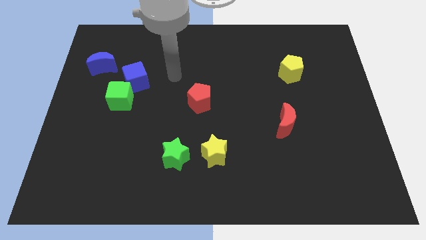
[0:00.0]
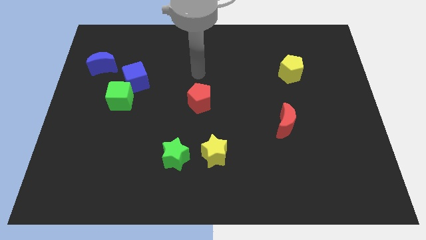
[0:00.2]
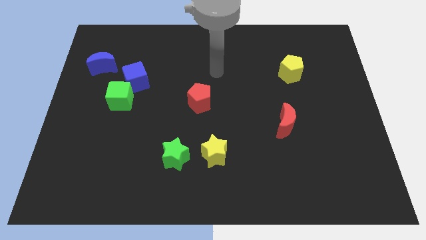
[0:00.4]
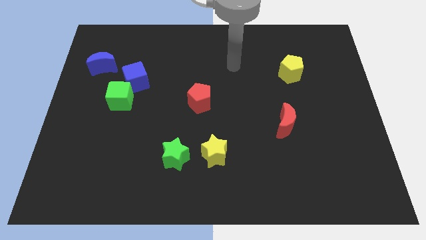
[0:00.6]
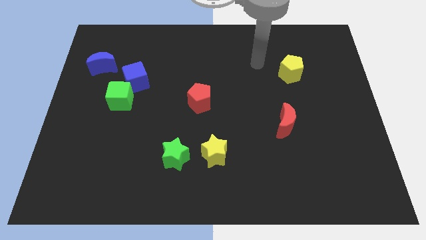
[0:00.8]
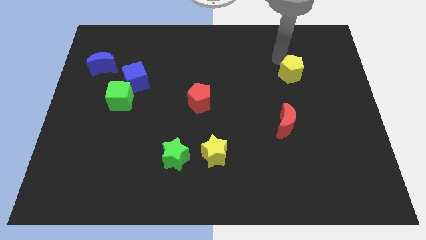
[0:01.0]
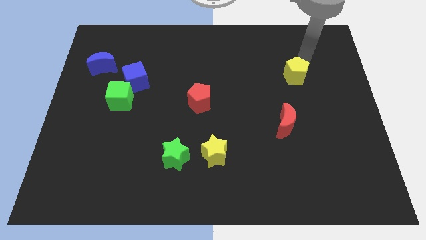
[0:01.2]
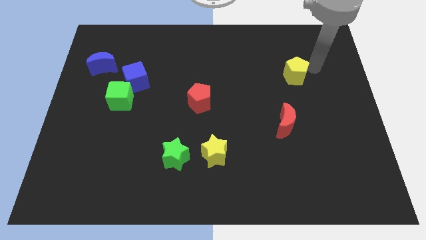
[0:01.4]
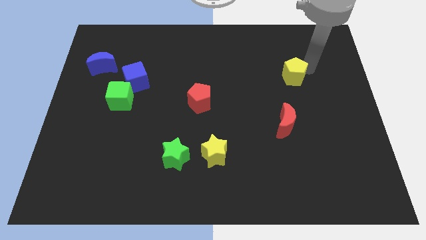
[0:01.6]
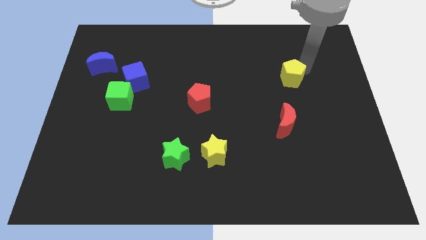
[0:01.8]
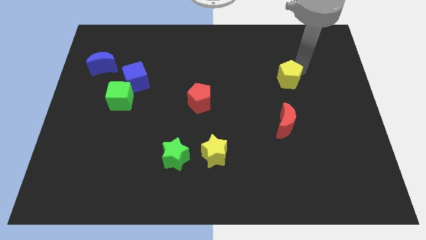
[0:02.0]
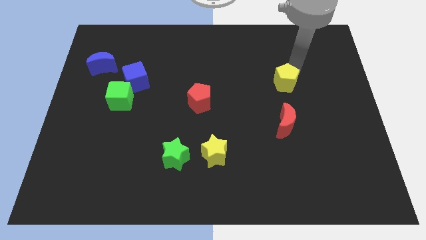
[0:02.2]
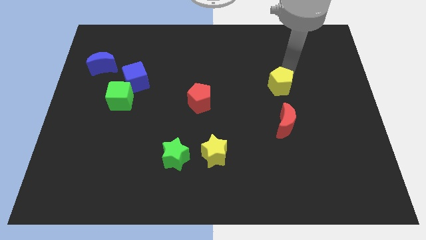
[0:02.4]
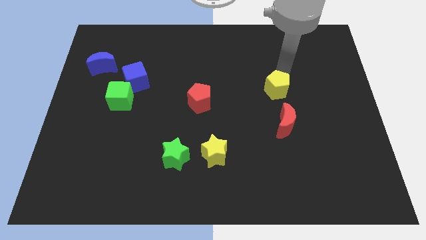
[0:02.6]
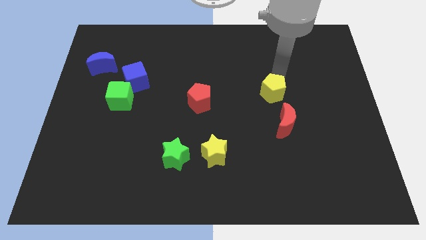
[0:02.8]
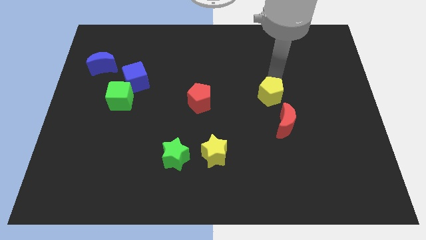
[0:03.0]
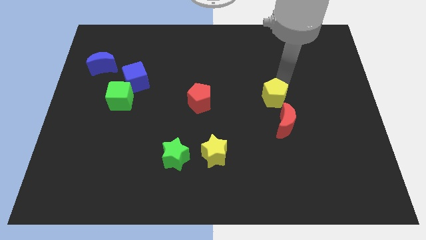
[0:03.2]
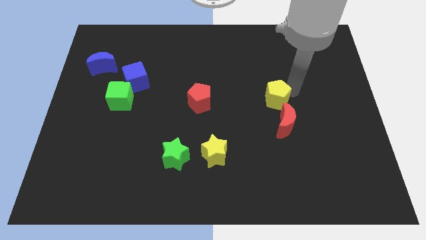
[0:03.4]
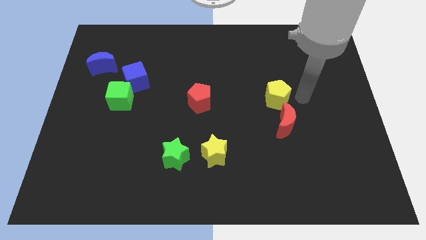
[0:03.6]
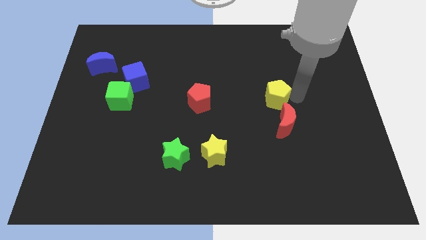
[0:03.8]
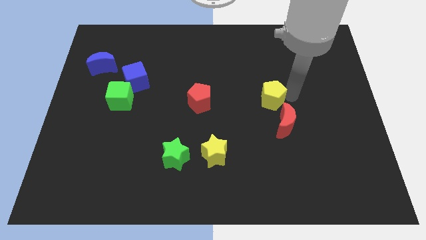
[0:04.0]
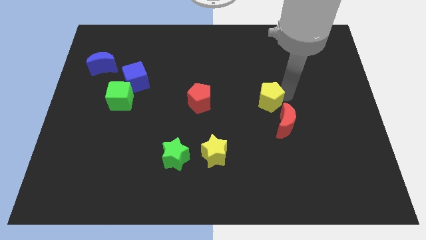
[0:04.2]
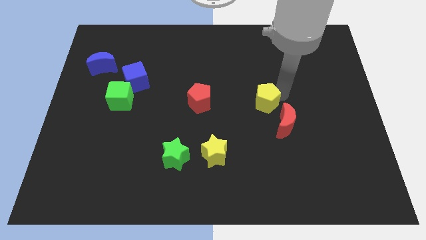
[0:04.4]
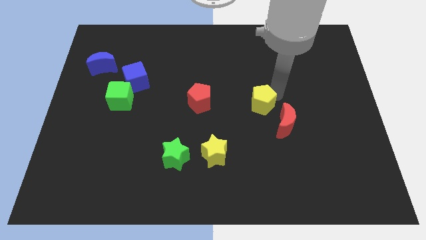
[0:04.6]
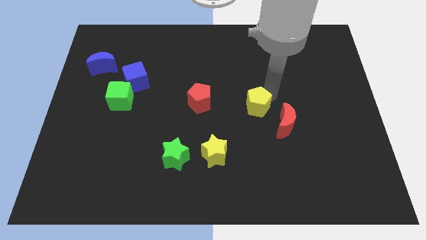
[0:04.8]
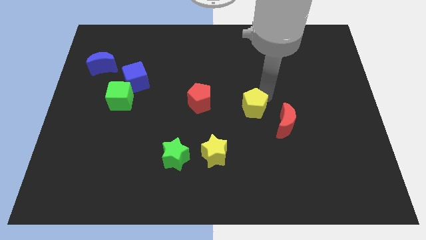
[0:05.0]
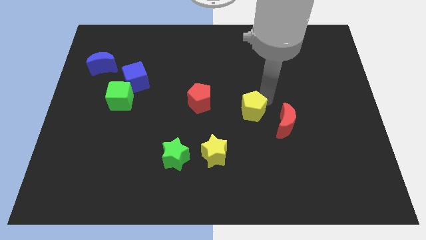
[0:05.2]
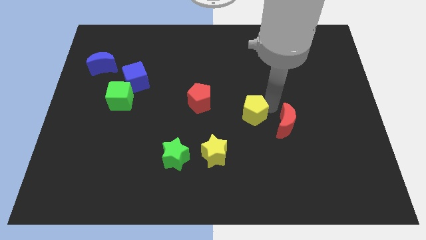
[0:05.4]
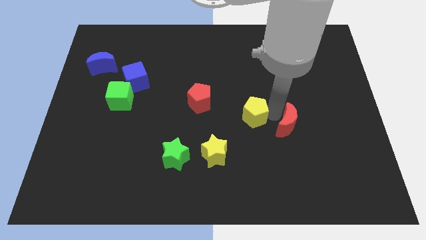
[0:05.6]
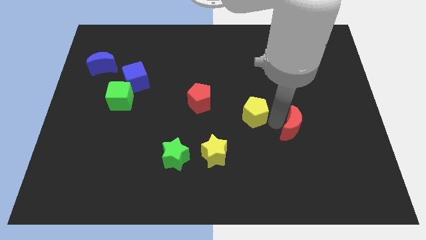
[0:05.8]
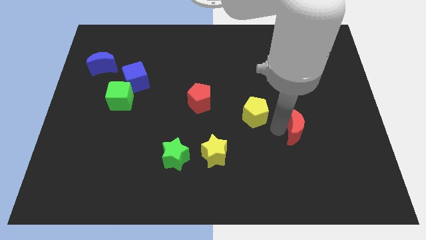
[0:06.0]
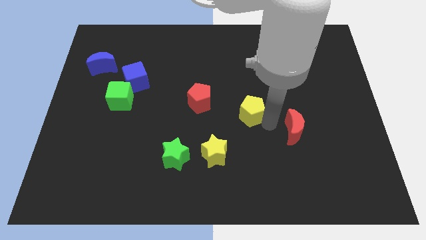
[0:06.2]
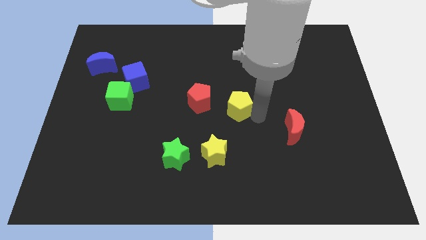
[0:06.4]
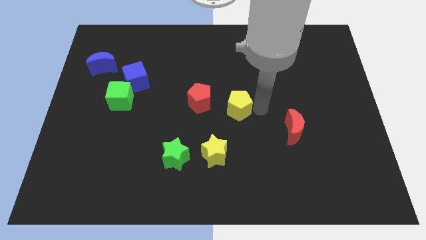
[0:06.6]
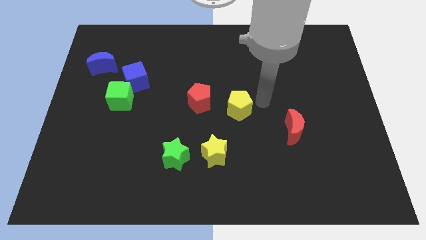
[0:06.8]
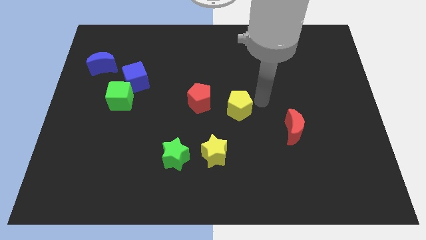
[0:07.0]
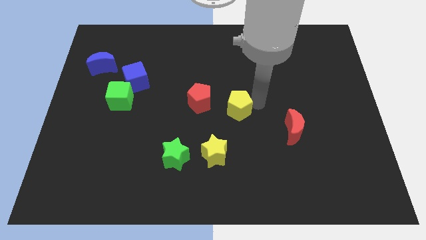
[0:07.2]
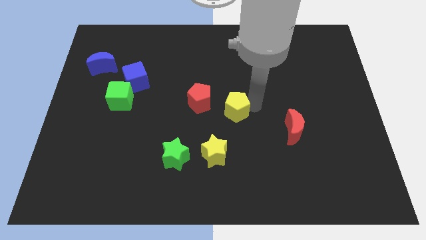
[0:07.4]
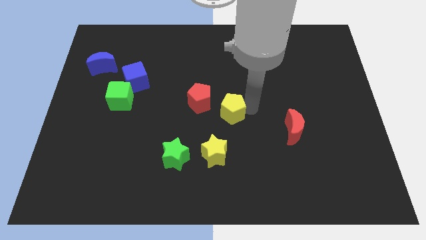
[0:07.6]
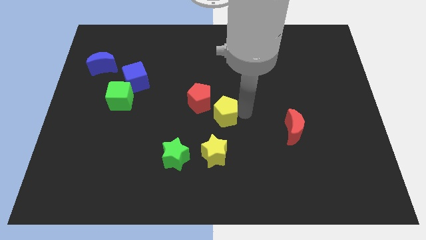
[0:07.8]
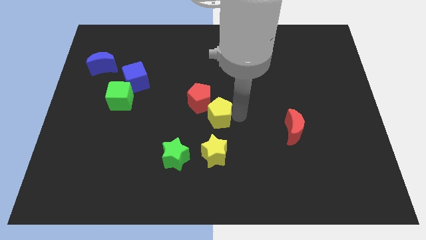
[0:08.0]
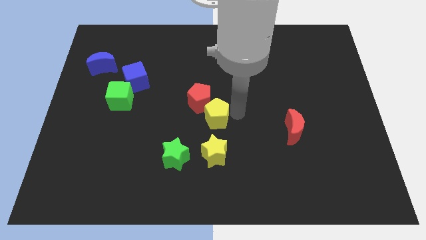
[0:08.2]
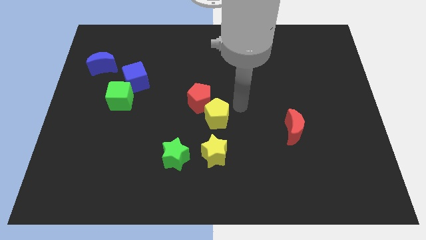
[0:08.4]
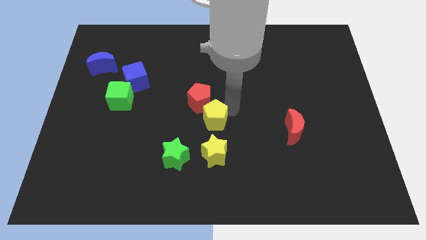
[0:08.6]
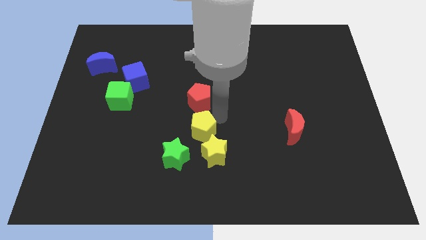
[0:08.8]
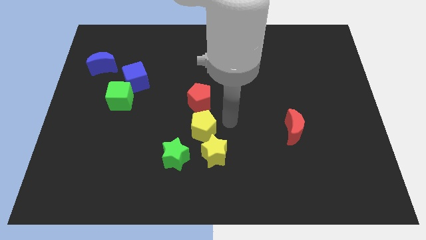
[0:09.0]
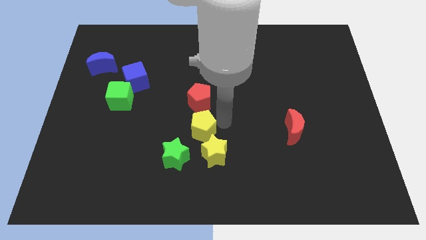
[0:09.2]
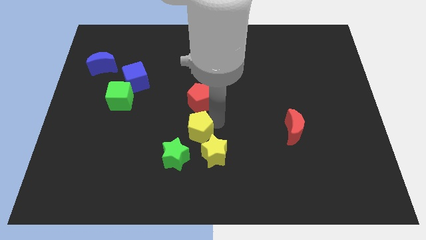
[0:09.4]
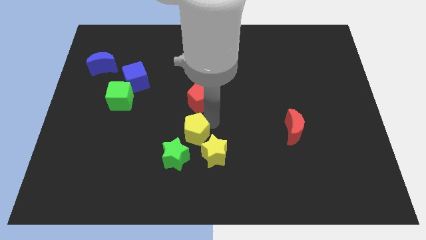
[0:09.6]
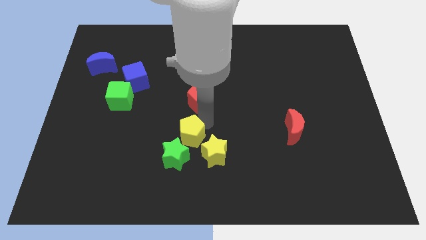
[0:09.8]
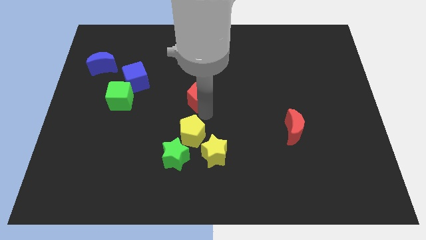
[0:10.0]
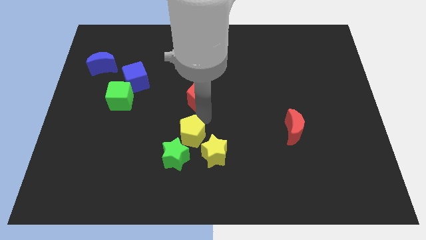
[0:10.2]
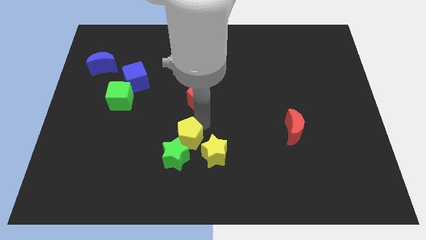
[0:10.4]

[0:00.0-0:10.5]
move the yellow pentagon next to the green star

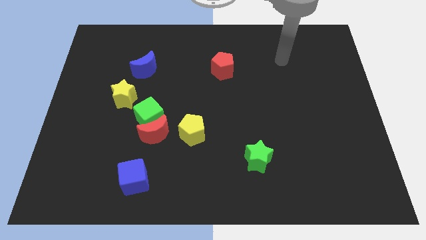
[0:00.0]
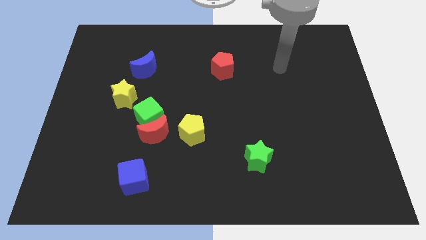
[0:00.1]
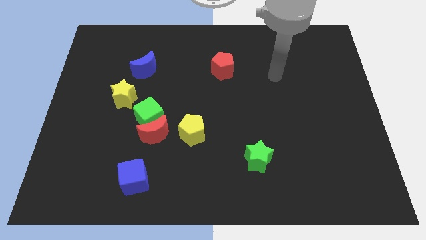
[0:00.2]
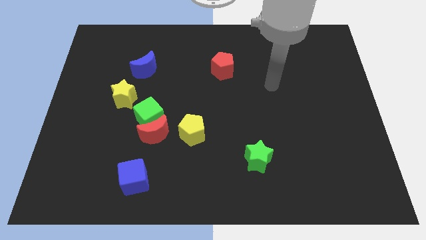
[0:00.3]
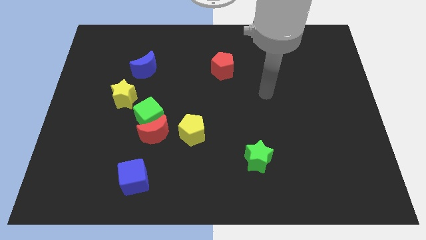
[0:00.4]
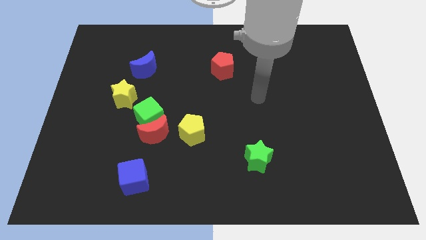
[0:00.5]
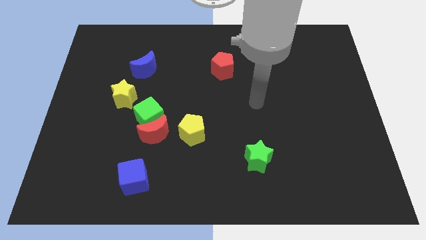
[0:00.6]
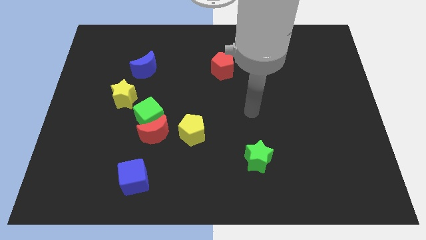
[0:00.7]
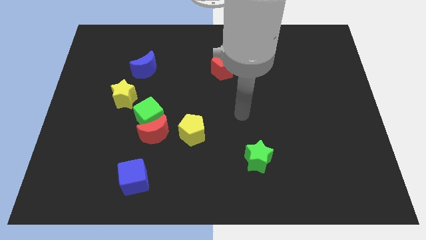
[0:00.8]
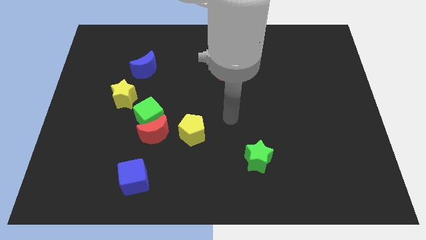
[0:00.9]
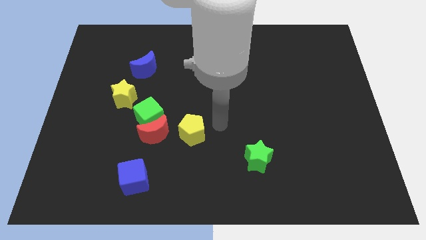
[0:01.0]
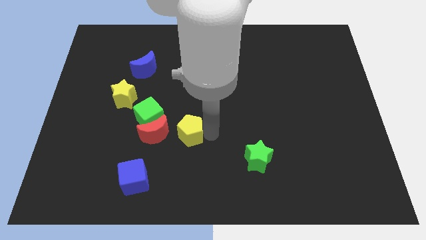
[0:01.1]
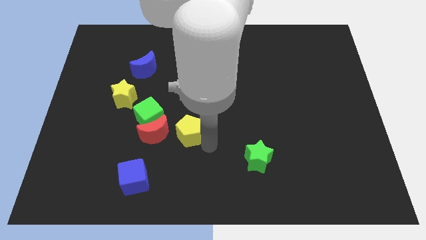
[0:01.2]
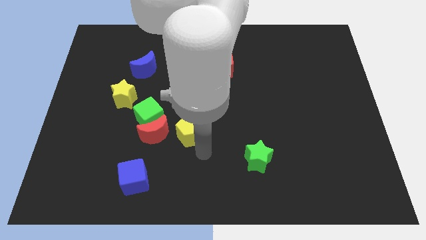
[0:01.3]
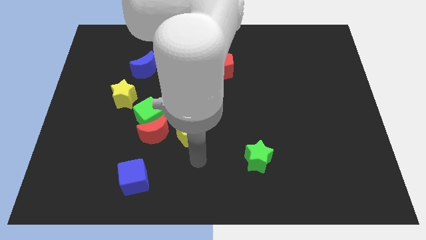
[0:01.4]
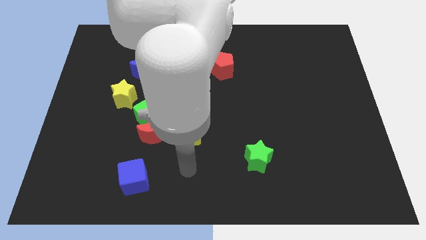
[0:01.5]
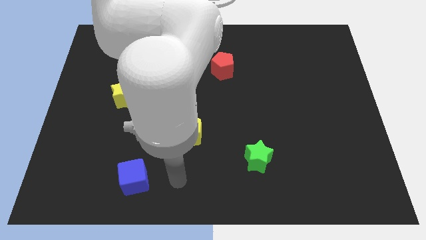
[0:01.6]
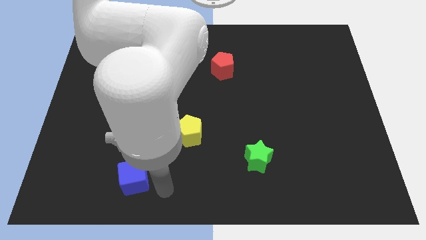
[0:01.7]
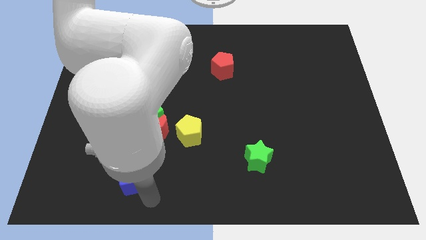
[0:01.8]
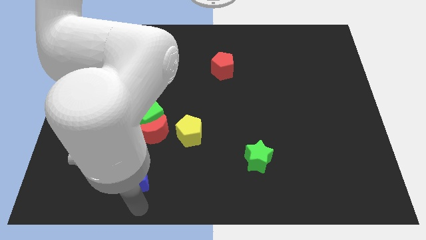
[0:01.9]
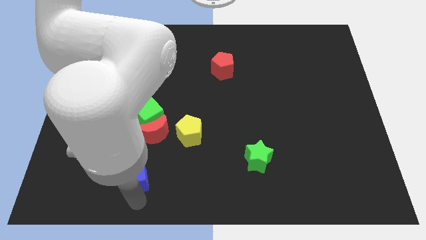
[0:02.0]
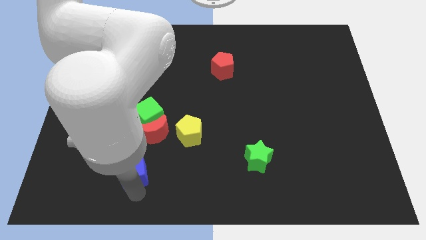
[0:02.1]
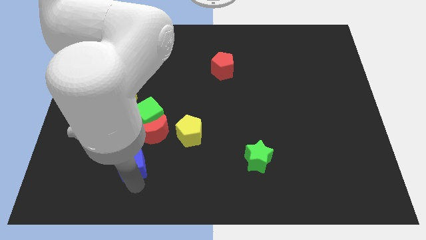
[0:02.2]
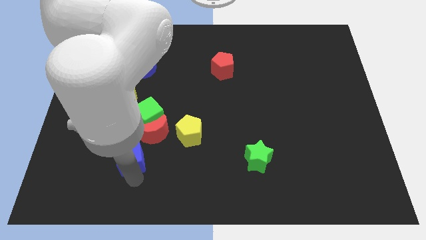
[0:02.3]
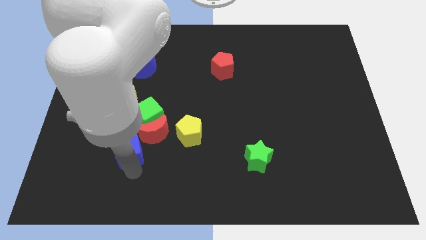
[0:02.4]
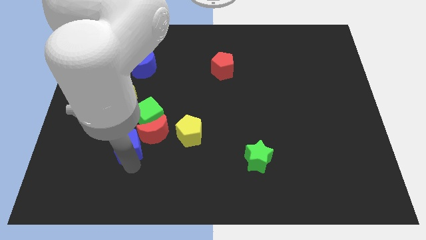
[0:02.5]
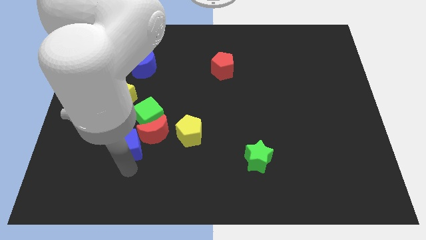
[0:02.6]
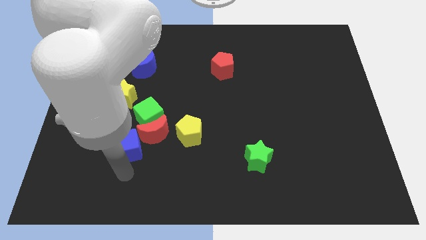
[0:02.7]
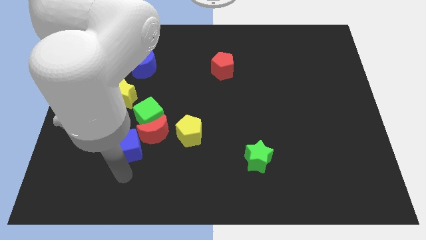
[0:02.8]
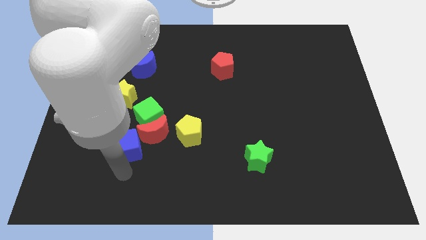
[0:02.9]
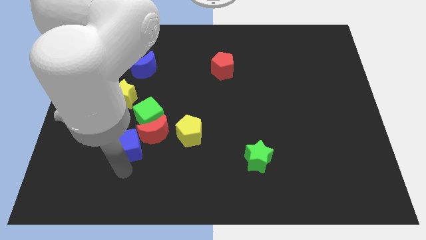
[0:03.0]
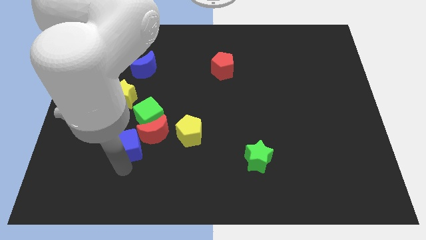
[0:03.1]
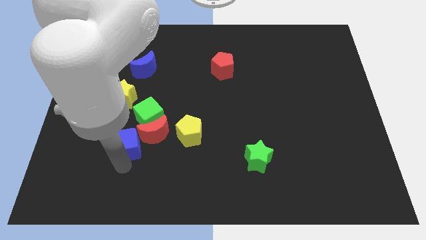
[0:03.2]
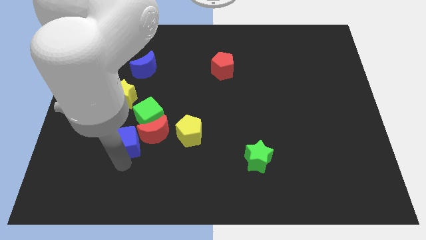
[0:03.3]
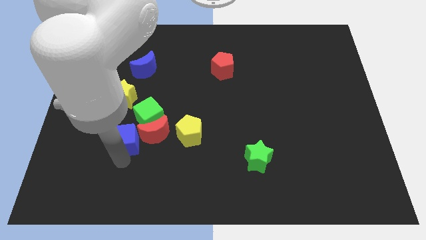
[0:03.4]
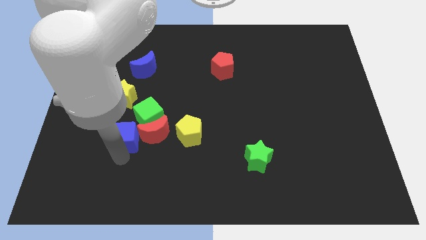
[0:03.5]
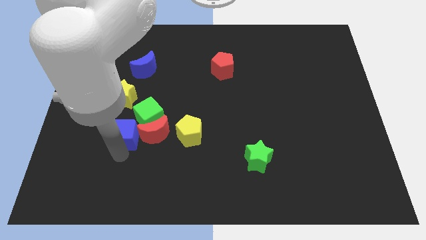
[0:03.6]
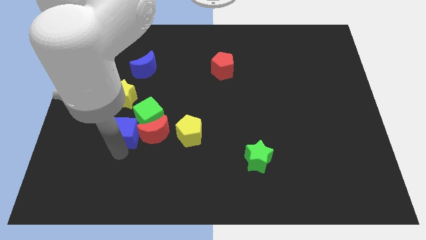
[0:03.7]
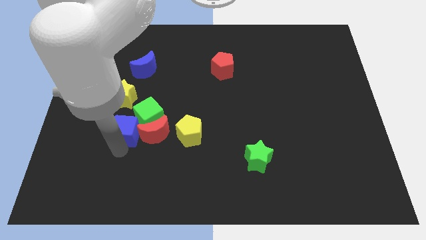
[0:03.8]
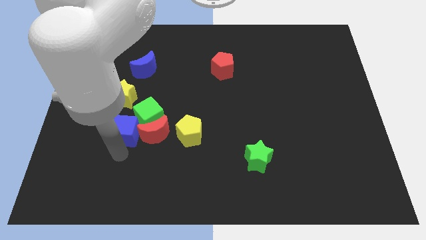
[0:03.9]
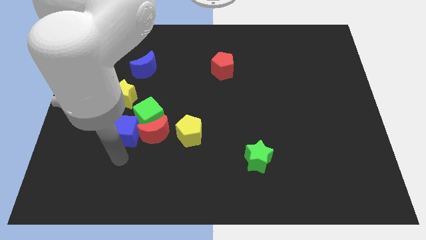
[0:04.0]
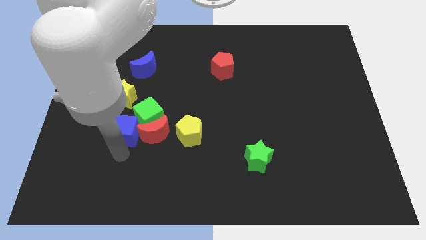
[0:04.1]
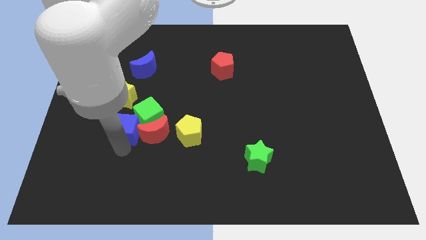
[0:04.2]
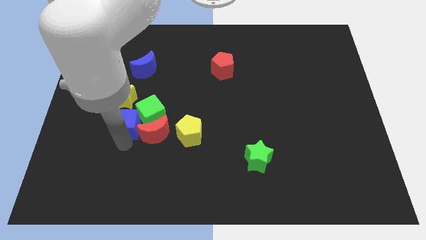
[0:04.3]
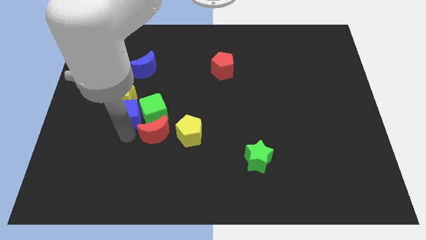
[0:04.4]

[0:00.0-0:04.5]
put the blue cube next to the yellow star
